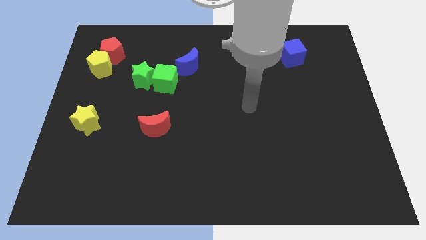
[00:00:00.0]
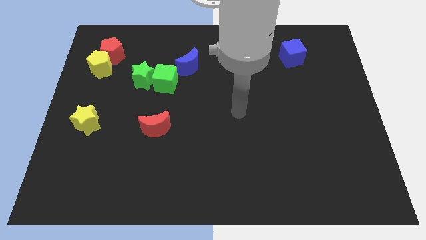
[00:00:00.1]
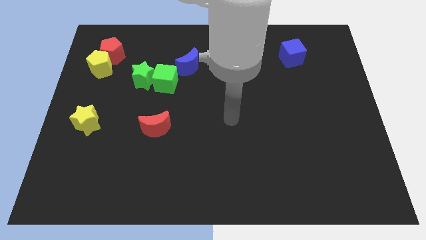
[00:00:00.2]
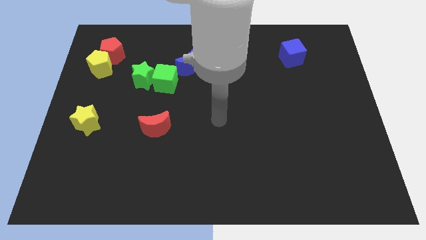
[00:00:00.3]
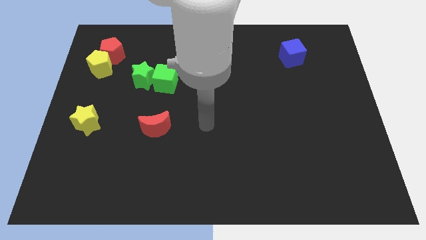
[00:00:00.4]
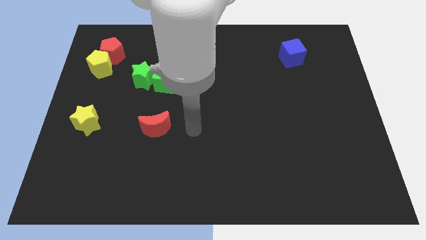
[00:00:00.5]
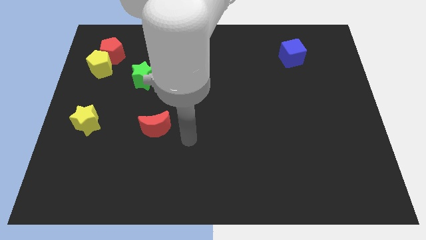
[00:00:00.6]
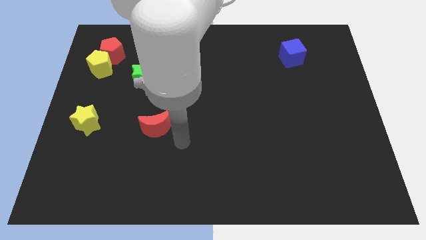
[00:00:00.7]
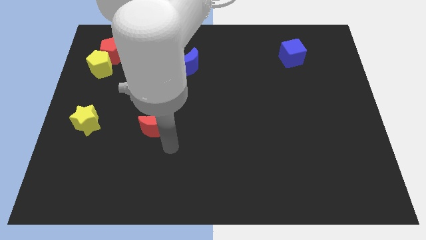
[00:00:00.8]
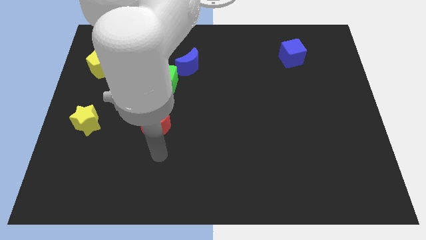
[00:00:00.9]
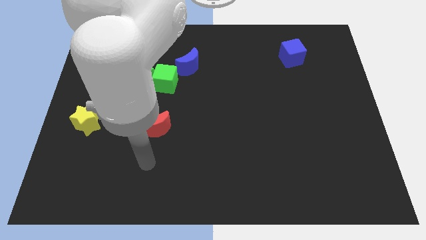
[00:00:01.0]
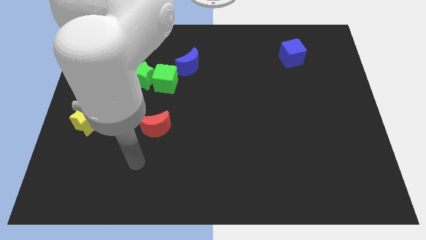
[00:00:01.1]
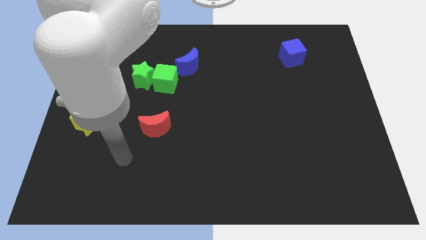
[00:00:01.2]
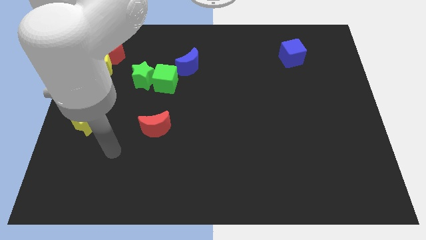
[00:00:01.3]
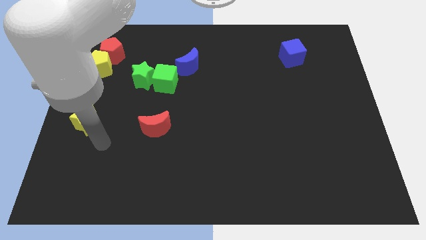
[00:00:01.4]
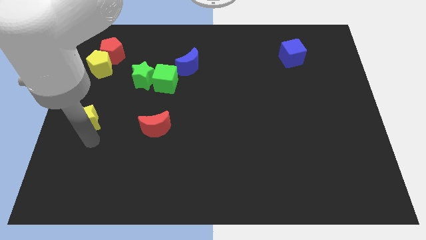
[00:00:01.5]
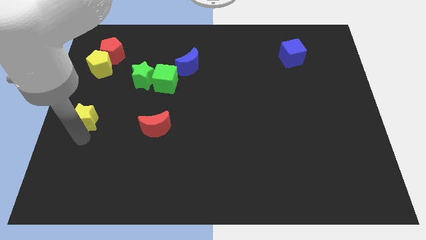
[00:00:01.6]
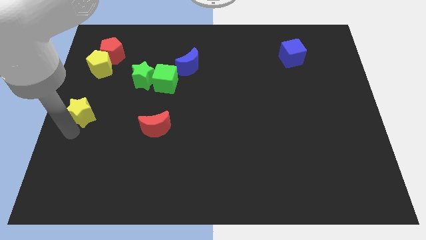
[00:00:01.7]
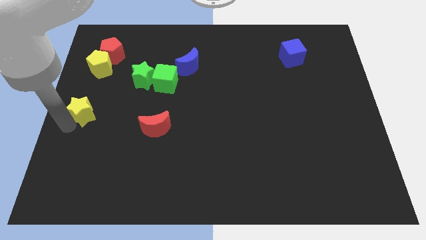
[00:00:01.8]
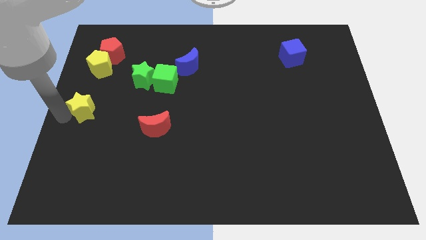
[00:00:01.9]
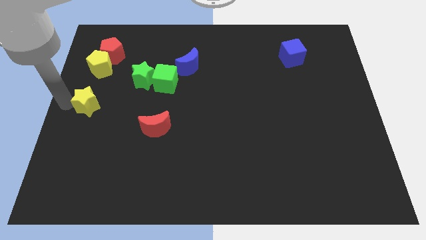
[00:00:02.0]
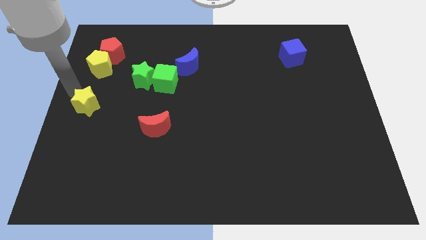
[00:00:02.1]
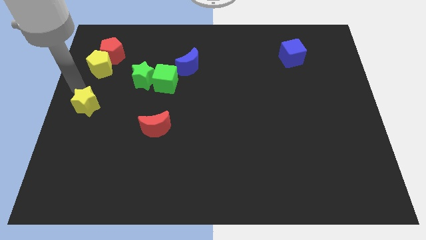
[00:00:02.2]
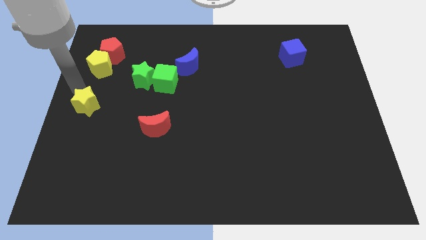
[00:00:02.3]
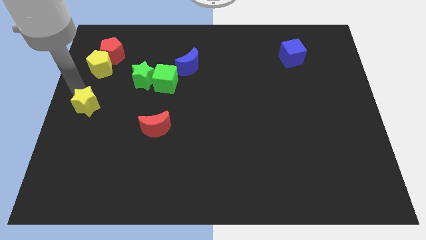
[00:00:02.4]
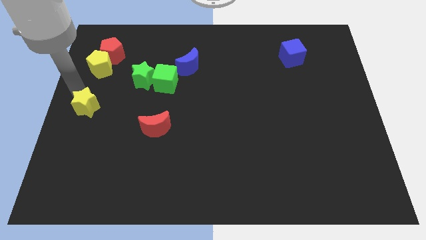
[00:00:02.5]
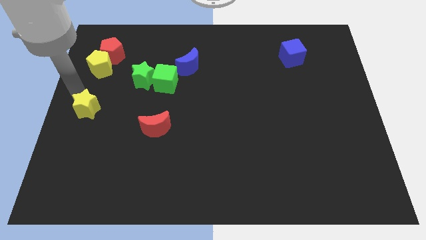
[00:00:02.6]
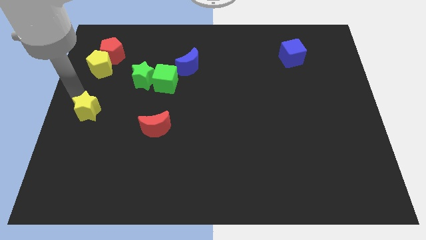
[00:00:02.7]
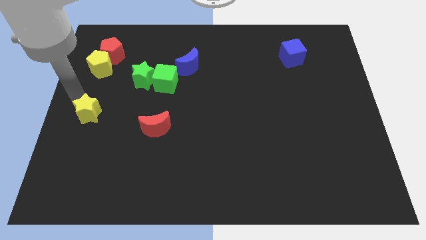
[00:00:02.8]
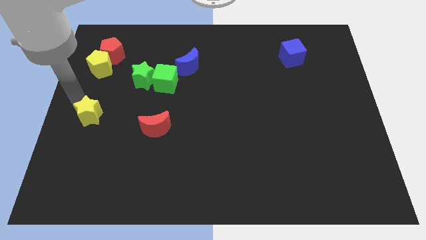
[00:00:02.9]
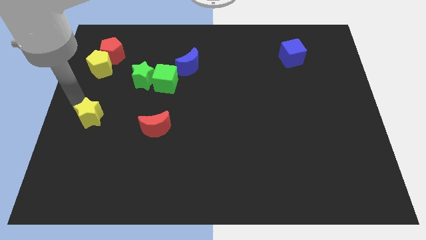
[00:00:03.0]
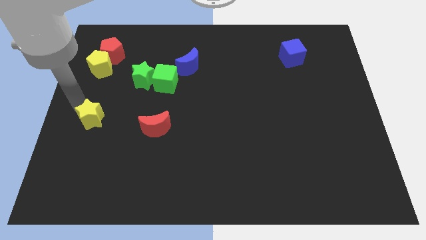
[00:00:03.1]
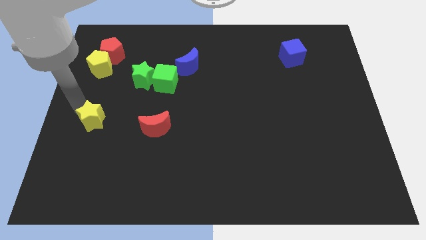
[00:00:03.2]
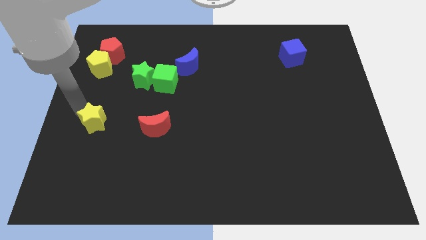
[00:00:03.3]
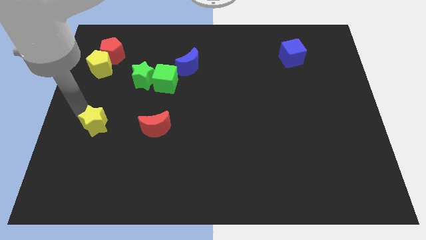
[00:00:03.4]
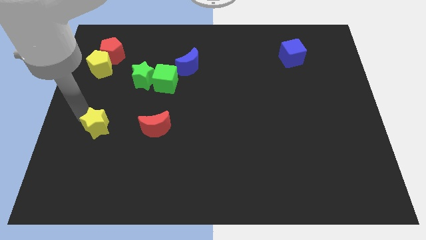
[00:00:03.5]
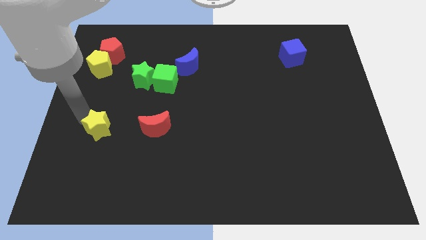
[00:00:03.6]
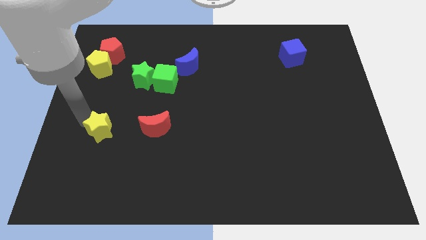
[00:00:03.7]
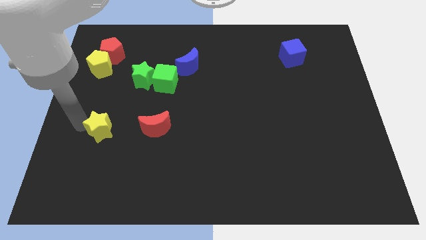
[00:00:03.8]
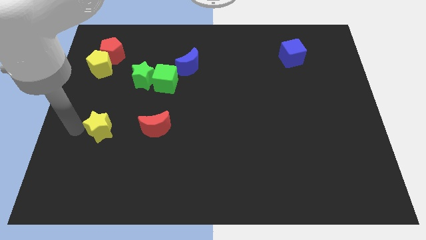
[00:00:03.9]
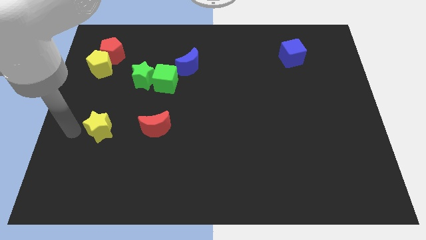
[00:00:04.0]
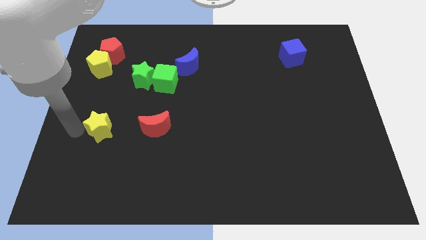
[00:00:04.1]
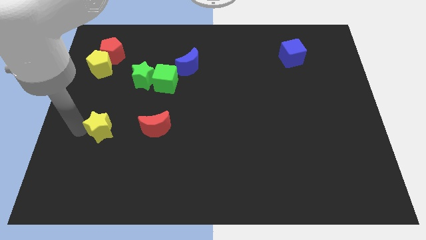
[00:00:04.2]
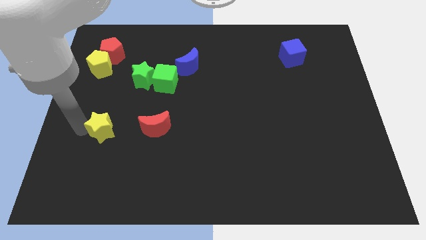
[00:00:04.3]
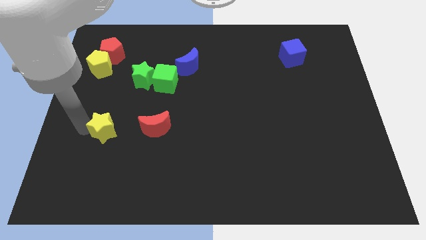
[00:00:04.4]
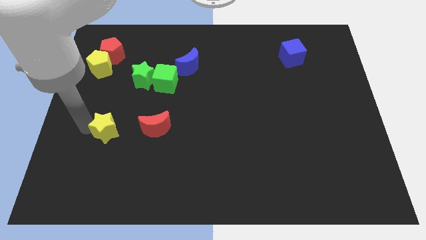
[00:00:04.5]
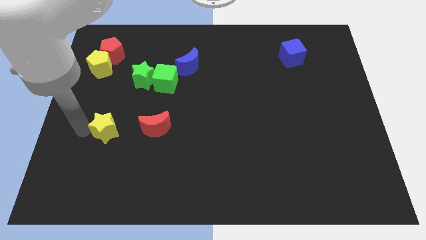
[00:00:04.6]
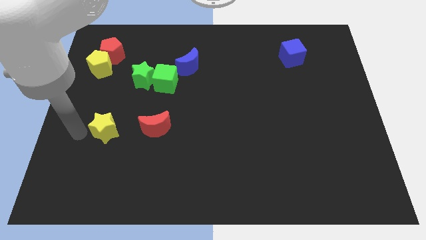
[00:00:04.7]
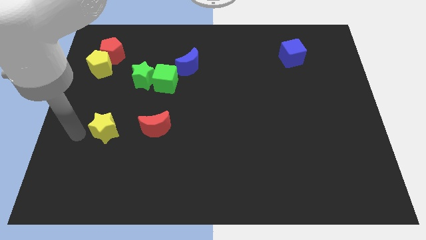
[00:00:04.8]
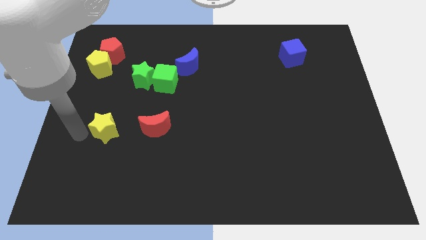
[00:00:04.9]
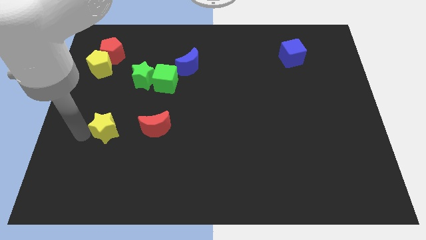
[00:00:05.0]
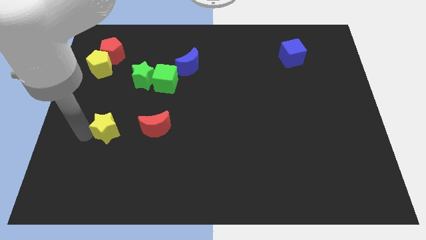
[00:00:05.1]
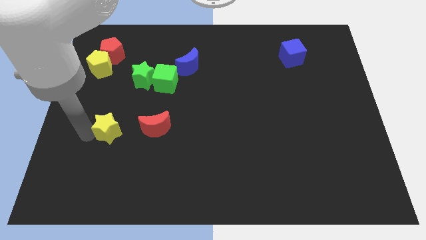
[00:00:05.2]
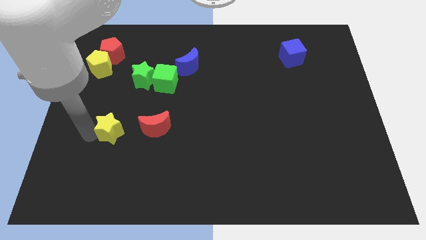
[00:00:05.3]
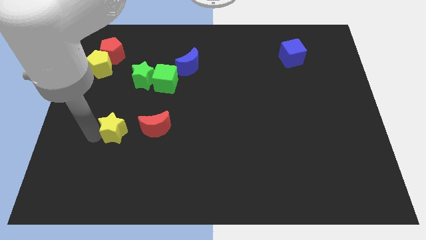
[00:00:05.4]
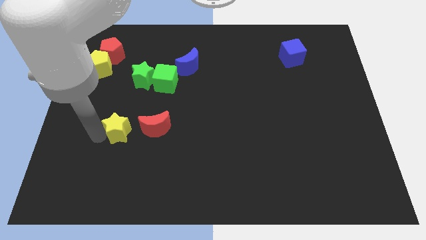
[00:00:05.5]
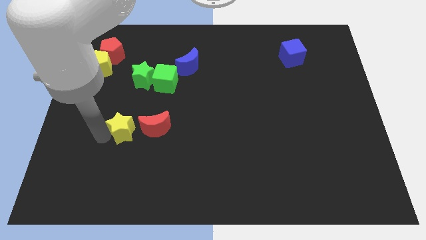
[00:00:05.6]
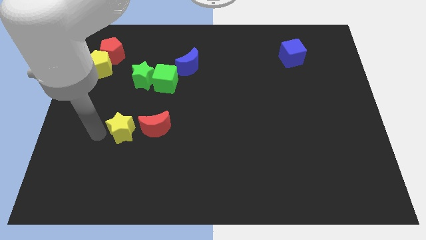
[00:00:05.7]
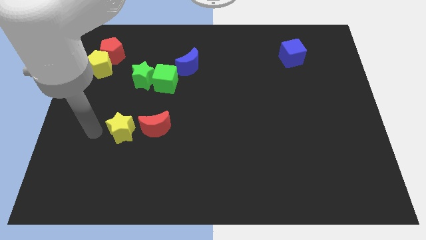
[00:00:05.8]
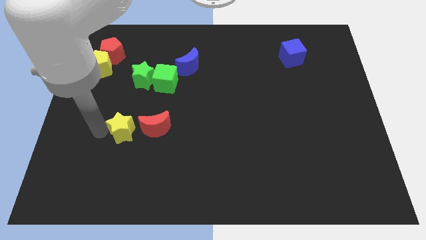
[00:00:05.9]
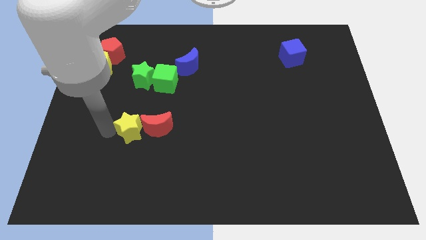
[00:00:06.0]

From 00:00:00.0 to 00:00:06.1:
push the yellow star next to the red moon
